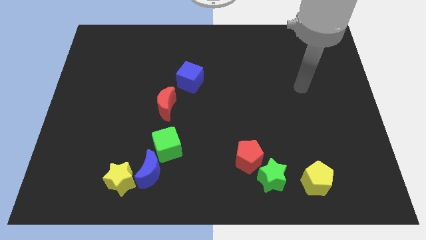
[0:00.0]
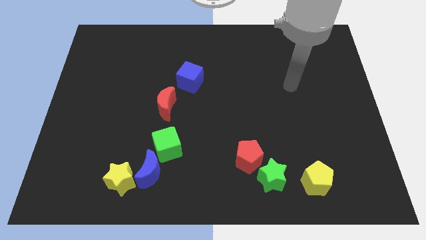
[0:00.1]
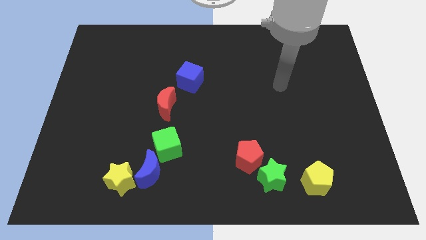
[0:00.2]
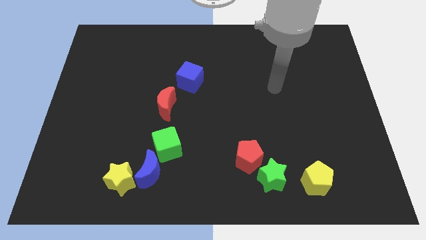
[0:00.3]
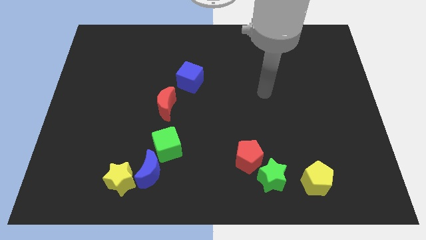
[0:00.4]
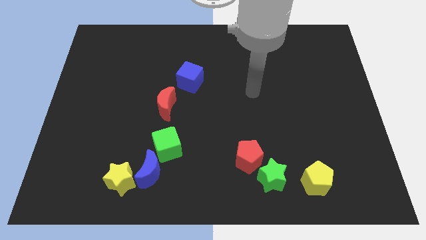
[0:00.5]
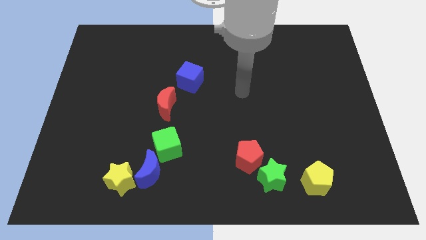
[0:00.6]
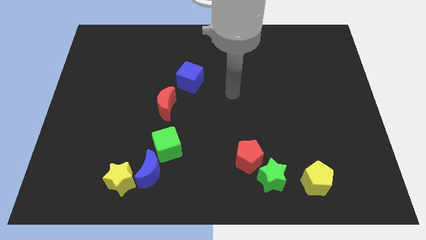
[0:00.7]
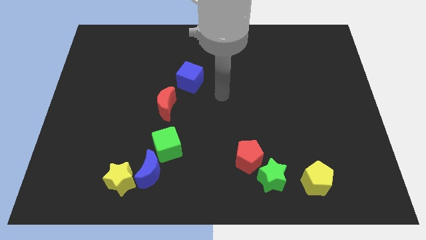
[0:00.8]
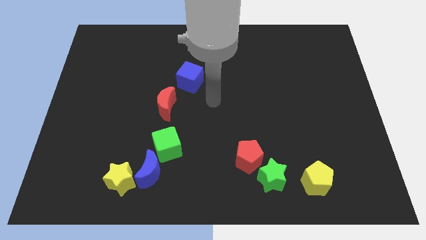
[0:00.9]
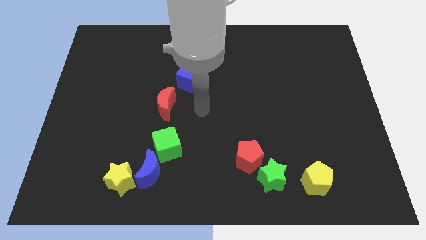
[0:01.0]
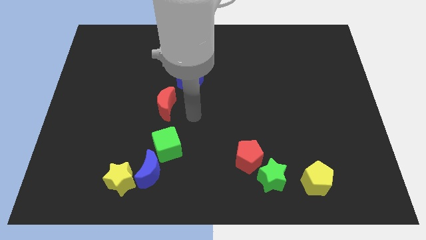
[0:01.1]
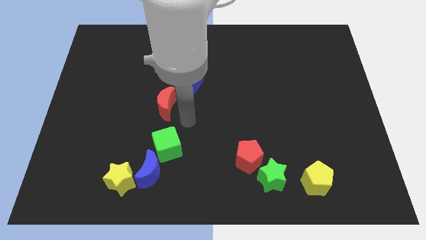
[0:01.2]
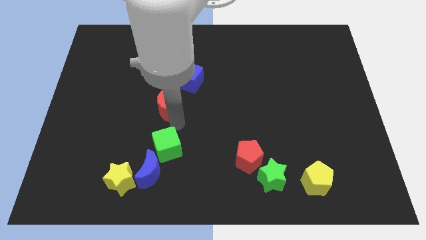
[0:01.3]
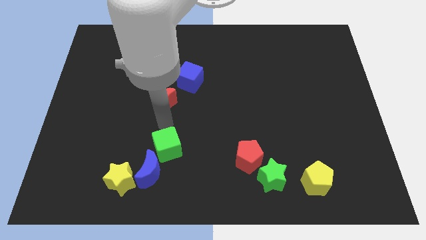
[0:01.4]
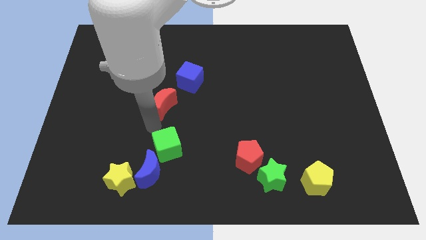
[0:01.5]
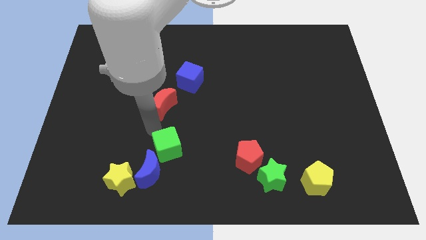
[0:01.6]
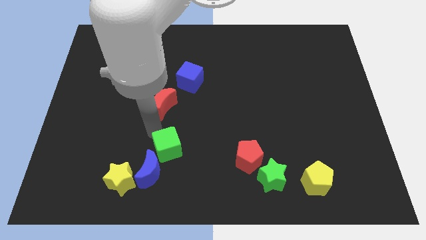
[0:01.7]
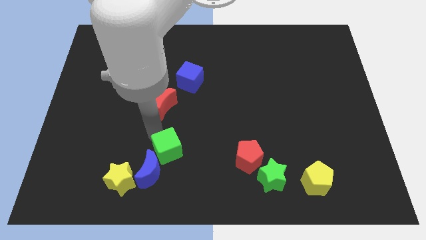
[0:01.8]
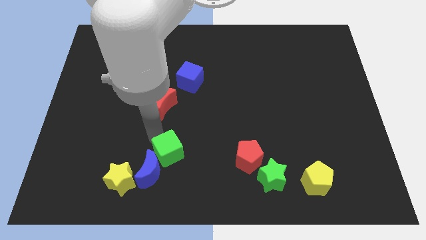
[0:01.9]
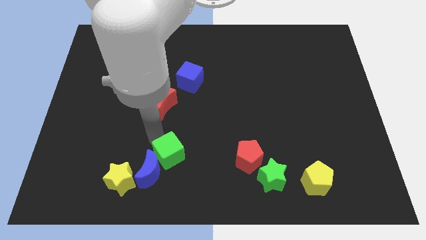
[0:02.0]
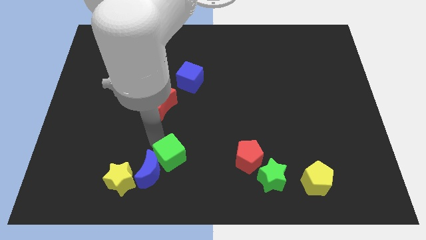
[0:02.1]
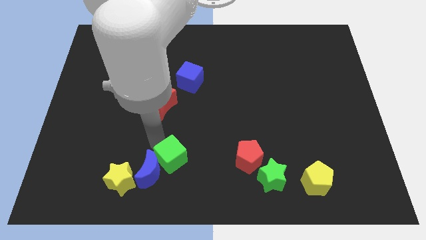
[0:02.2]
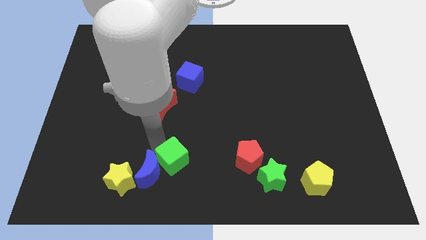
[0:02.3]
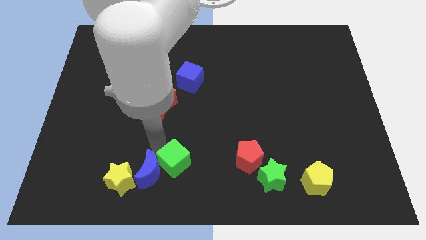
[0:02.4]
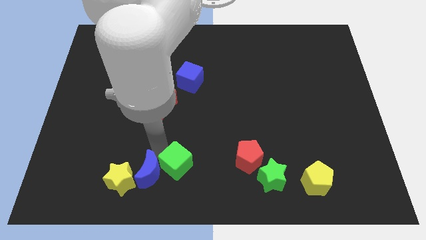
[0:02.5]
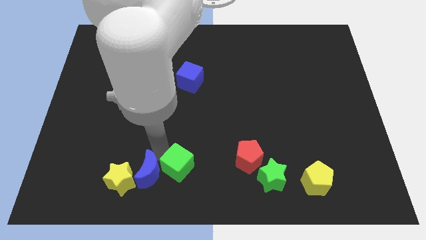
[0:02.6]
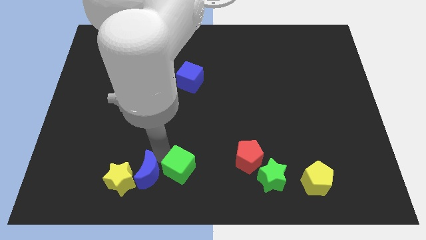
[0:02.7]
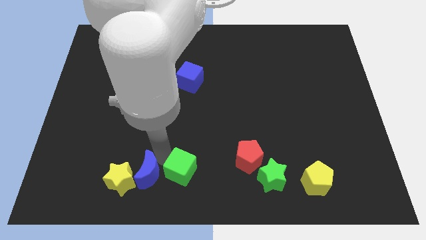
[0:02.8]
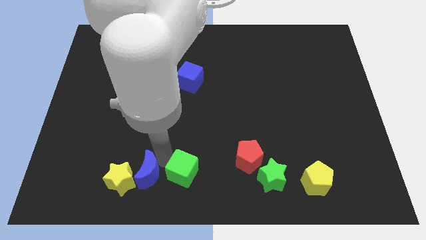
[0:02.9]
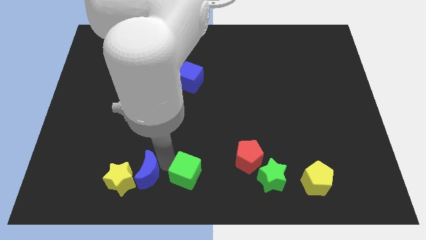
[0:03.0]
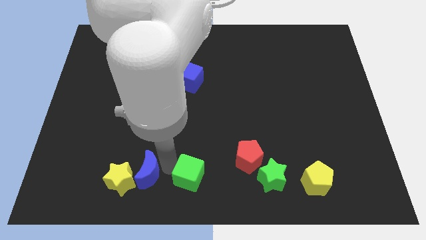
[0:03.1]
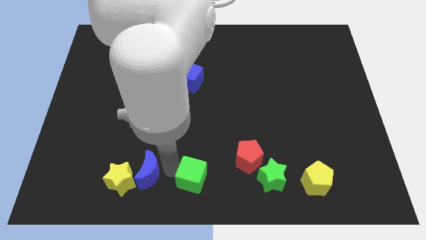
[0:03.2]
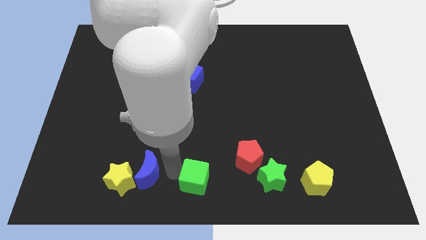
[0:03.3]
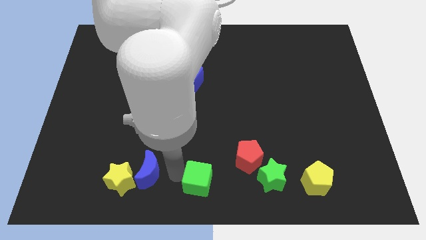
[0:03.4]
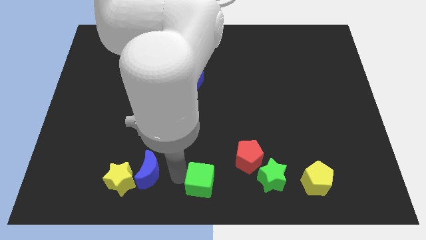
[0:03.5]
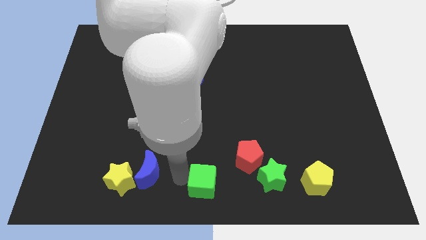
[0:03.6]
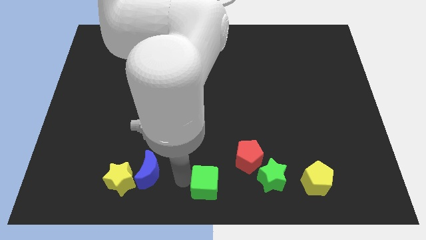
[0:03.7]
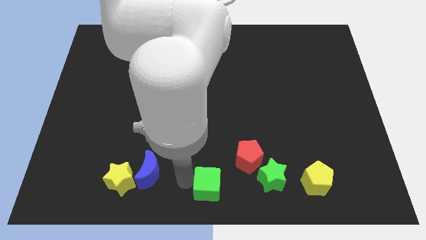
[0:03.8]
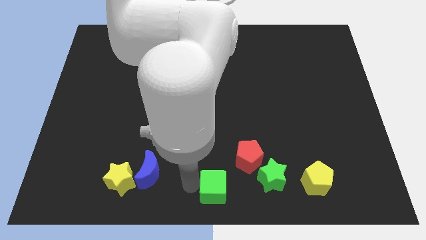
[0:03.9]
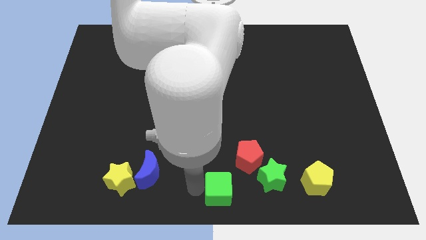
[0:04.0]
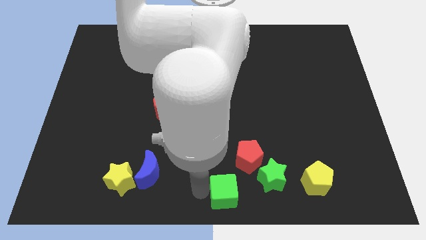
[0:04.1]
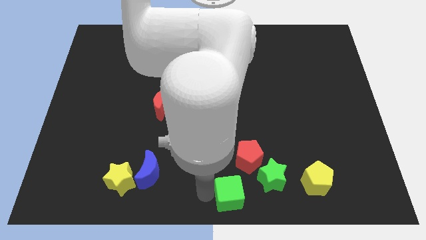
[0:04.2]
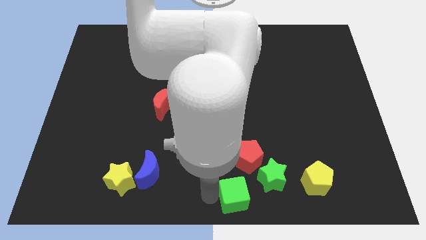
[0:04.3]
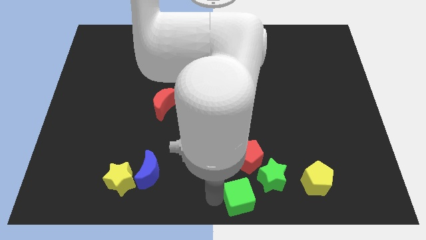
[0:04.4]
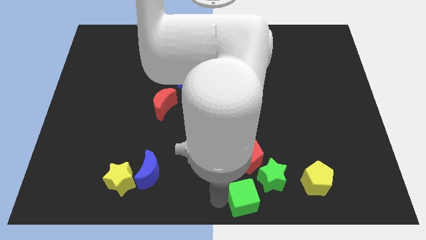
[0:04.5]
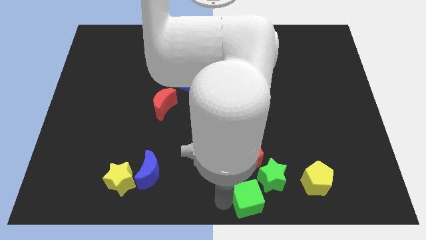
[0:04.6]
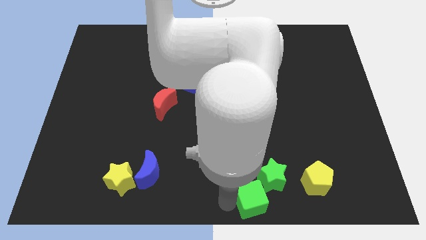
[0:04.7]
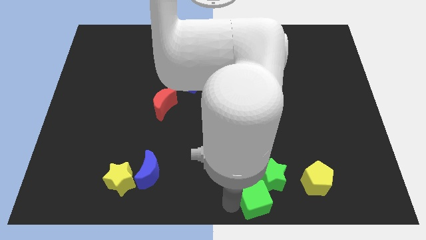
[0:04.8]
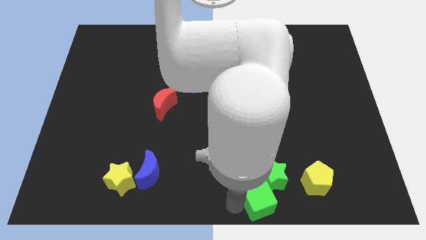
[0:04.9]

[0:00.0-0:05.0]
push the green cube to the green star

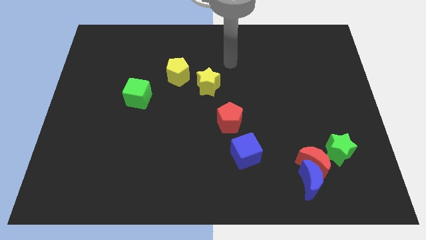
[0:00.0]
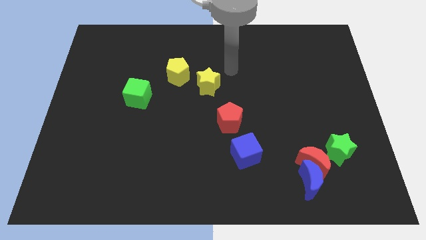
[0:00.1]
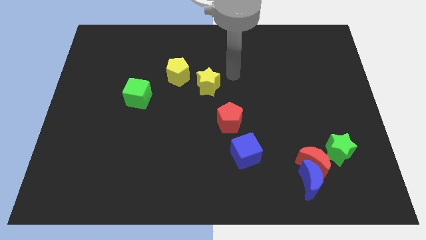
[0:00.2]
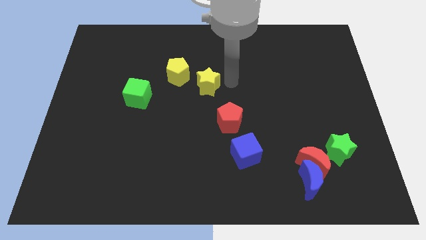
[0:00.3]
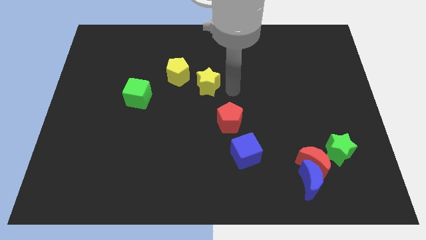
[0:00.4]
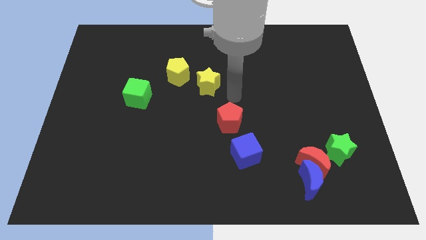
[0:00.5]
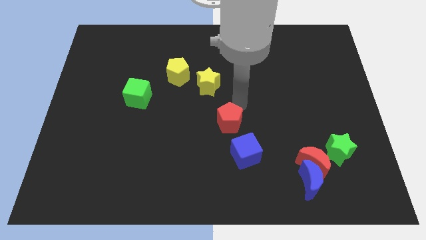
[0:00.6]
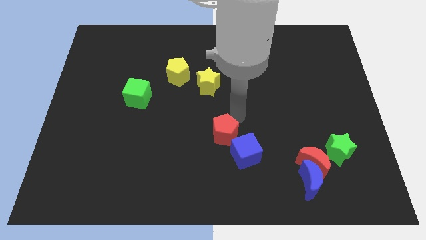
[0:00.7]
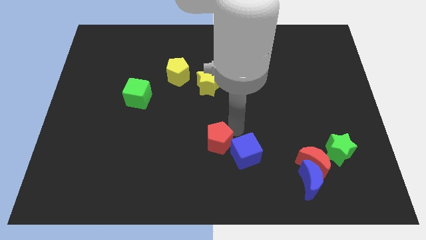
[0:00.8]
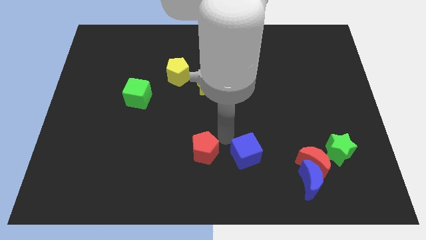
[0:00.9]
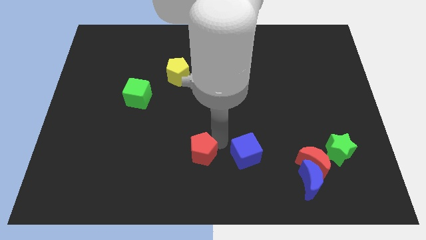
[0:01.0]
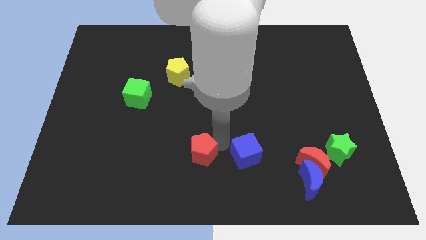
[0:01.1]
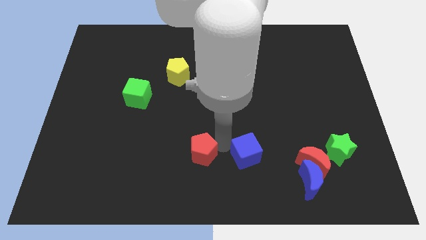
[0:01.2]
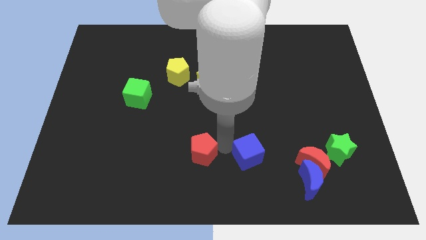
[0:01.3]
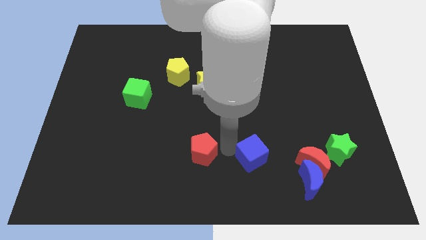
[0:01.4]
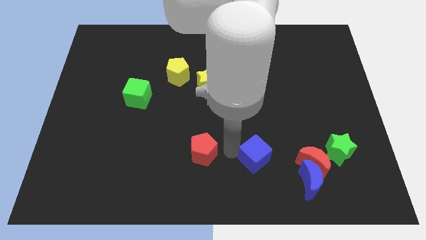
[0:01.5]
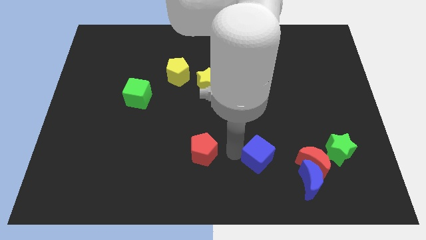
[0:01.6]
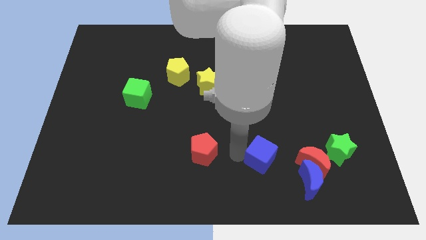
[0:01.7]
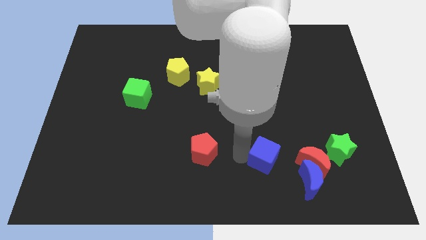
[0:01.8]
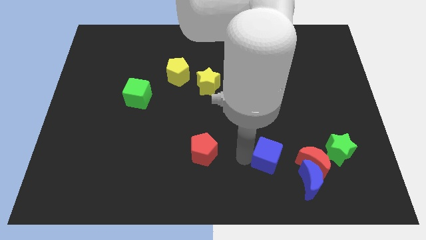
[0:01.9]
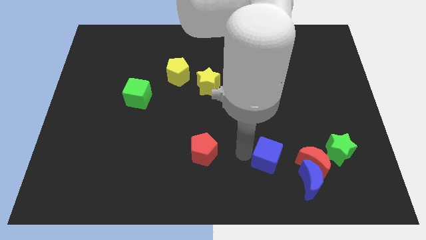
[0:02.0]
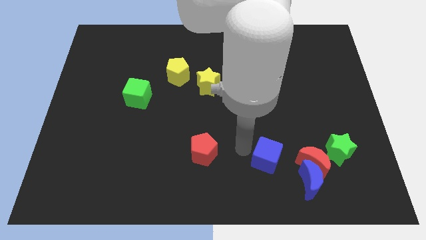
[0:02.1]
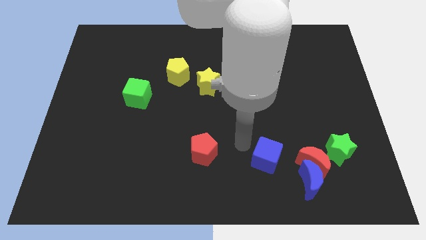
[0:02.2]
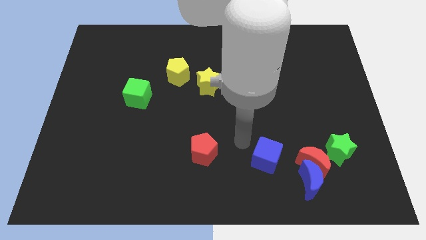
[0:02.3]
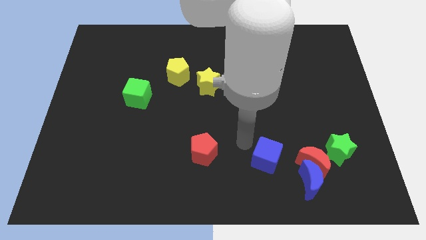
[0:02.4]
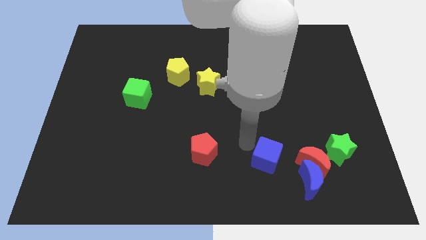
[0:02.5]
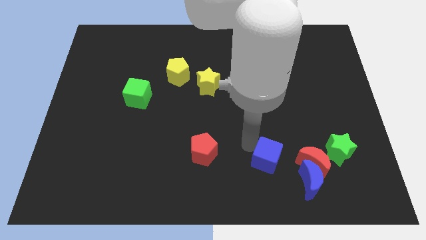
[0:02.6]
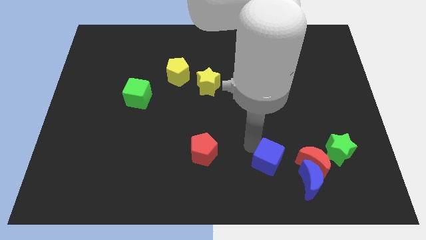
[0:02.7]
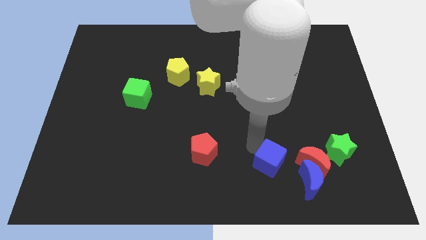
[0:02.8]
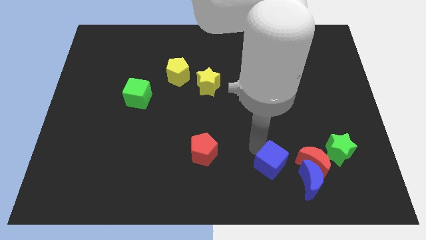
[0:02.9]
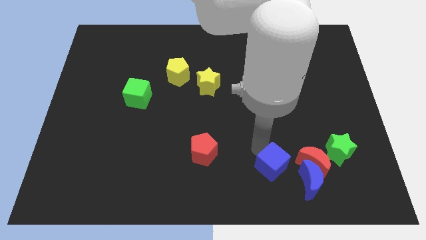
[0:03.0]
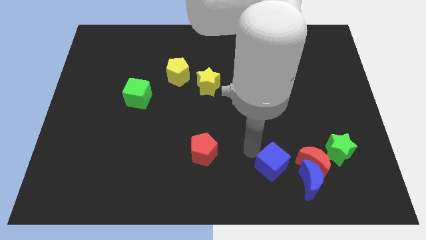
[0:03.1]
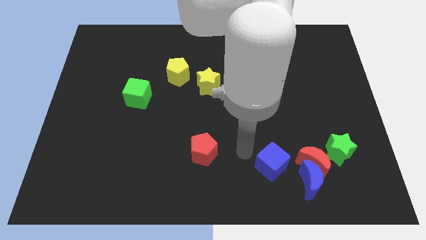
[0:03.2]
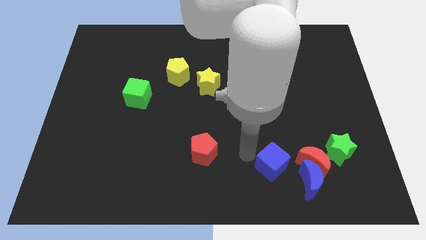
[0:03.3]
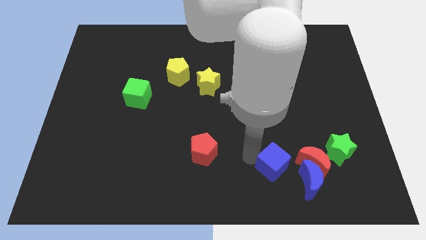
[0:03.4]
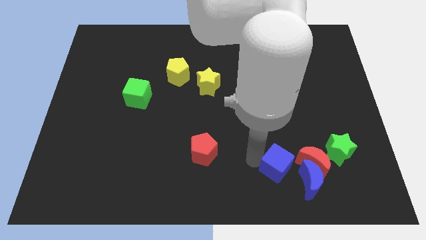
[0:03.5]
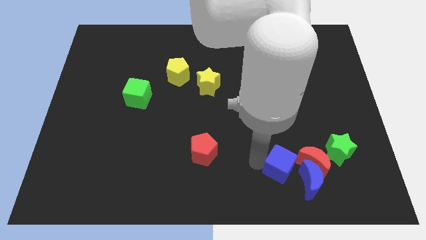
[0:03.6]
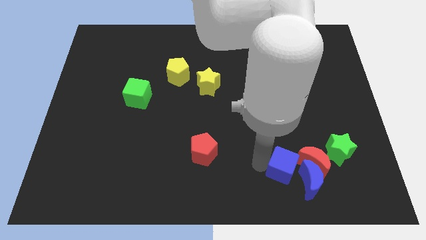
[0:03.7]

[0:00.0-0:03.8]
put the blue cube next to the blue moon
